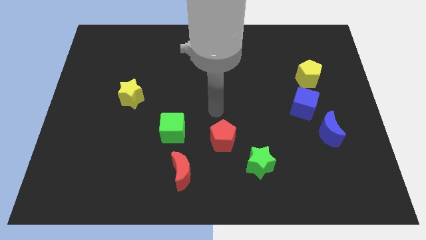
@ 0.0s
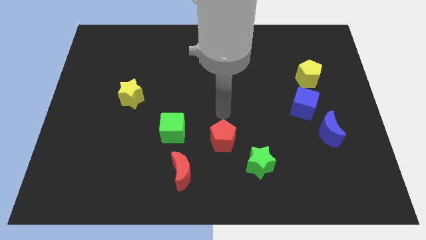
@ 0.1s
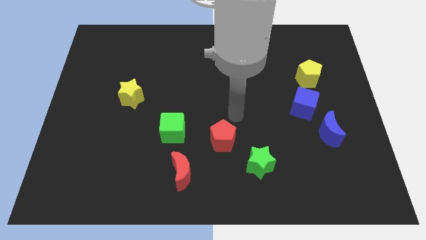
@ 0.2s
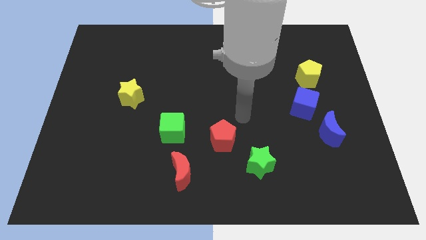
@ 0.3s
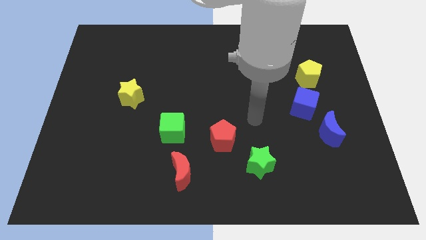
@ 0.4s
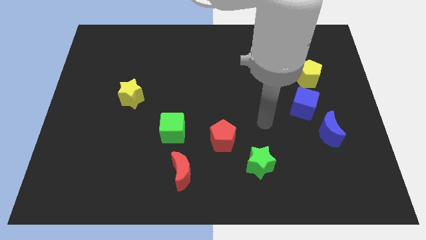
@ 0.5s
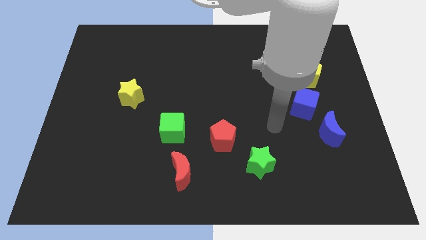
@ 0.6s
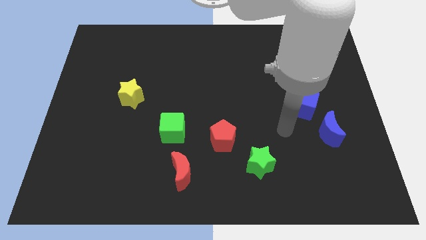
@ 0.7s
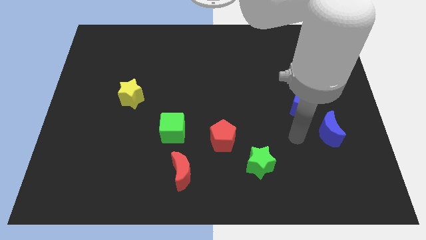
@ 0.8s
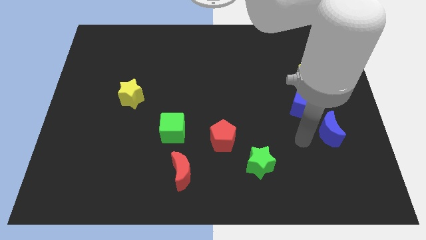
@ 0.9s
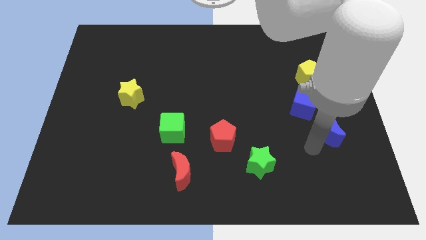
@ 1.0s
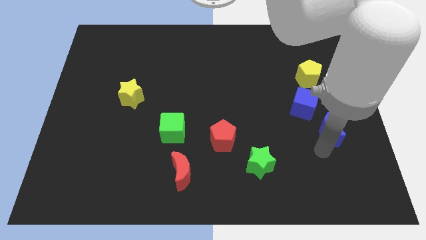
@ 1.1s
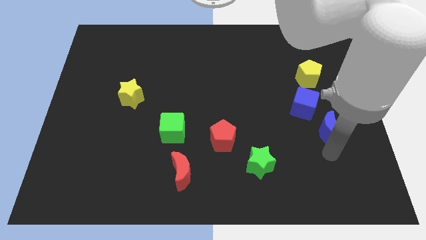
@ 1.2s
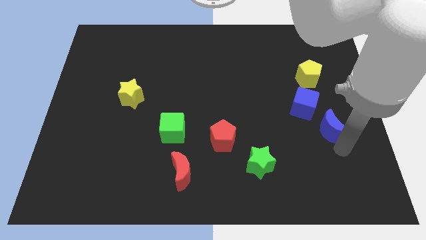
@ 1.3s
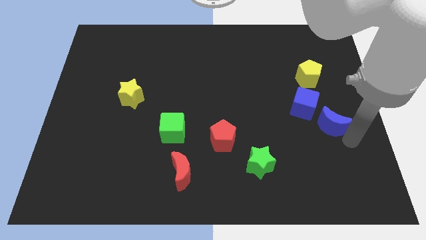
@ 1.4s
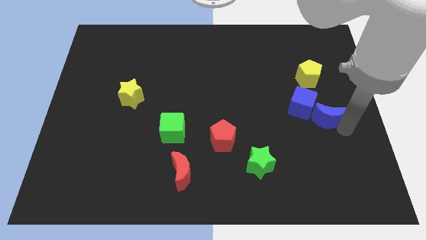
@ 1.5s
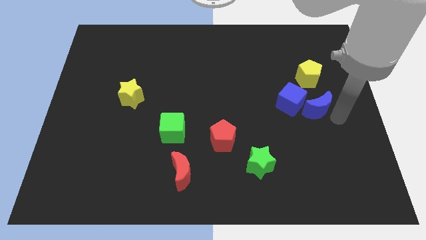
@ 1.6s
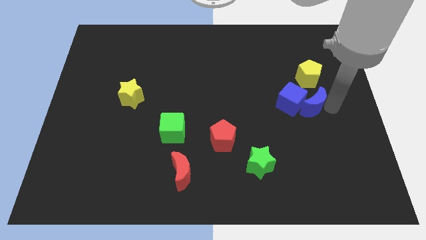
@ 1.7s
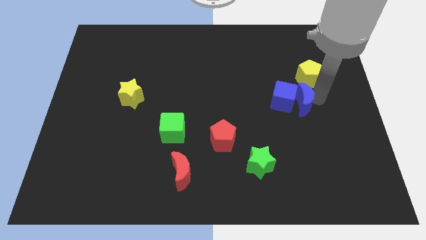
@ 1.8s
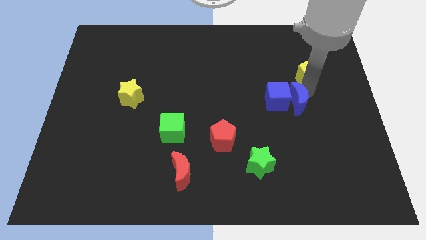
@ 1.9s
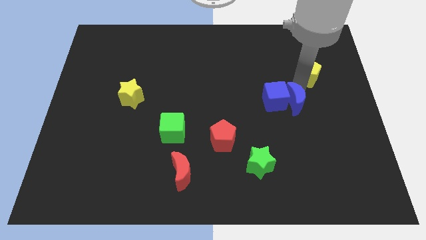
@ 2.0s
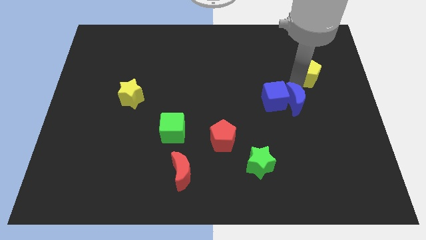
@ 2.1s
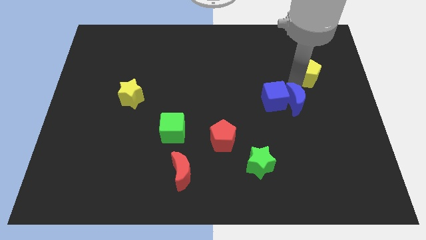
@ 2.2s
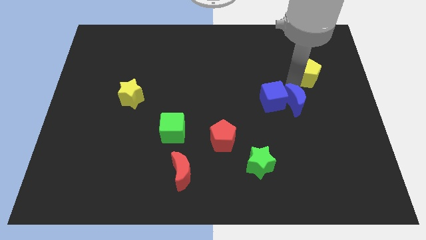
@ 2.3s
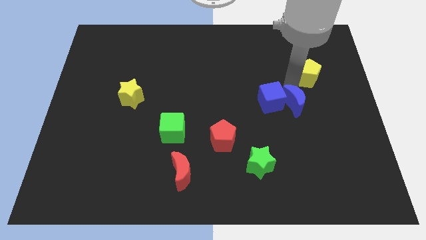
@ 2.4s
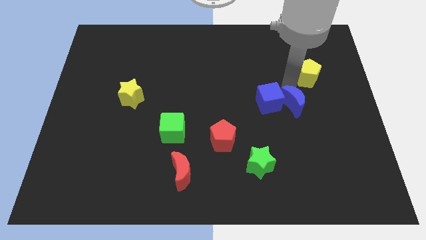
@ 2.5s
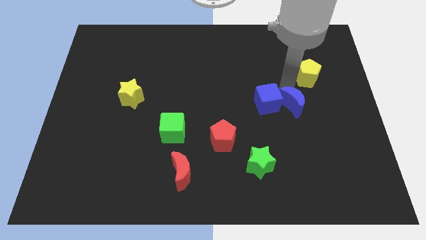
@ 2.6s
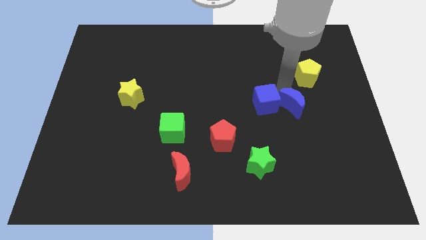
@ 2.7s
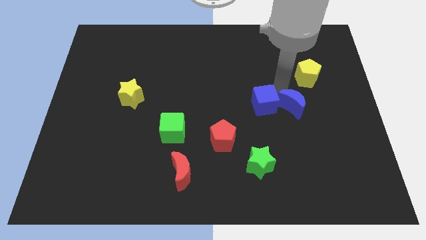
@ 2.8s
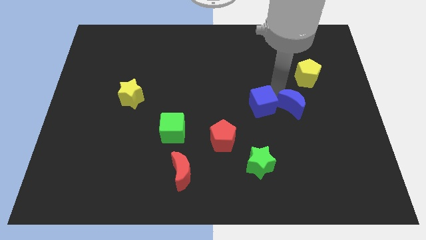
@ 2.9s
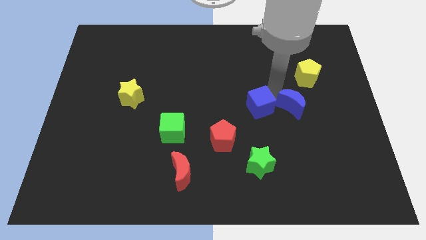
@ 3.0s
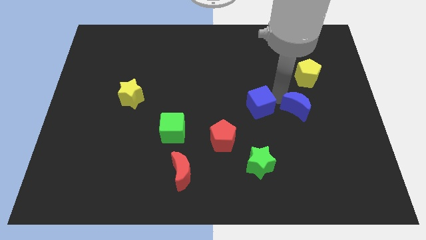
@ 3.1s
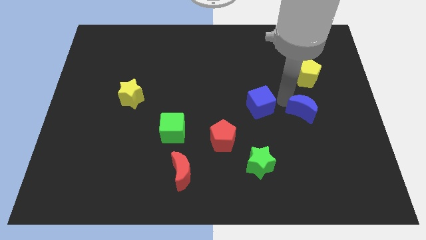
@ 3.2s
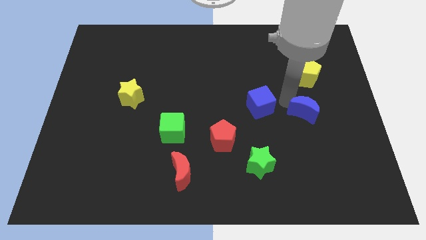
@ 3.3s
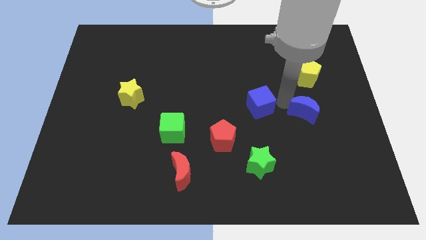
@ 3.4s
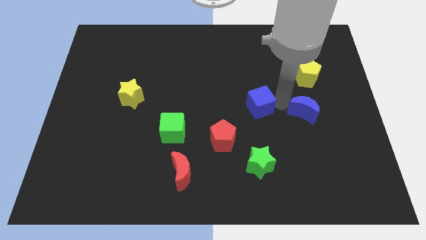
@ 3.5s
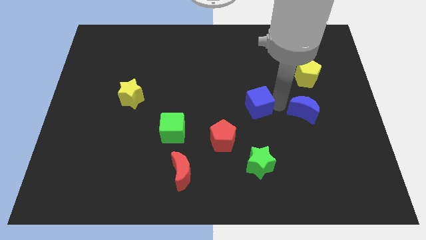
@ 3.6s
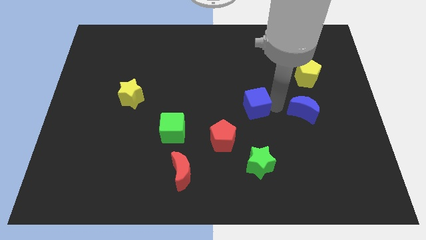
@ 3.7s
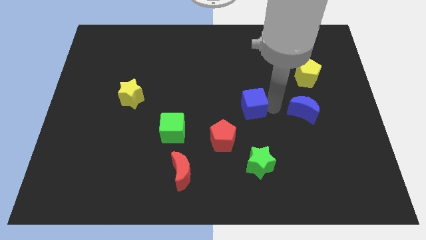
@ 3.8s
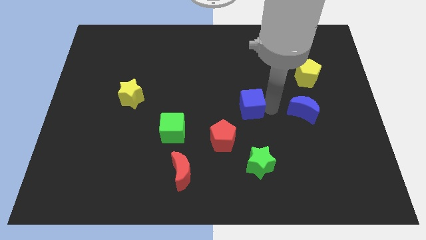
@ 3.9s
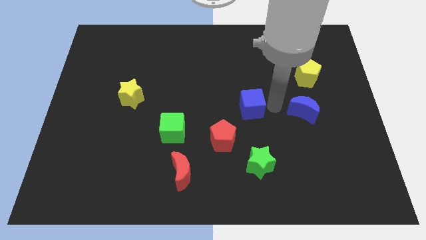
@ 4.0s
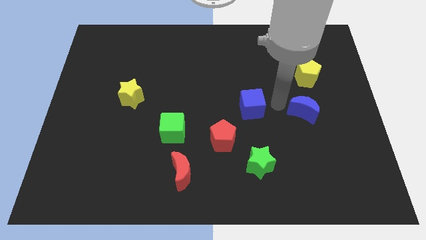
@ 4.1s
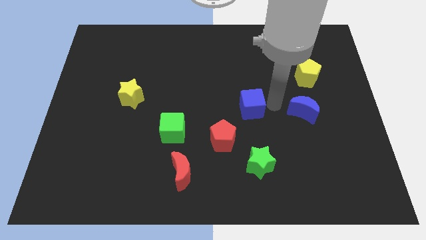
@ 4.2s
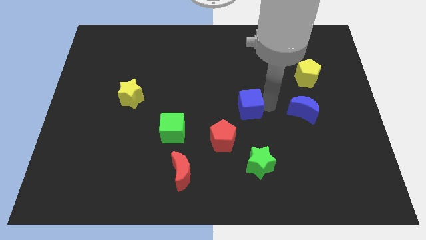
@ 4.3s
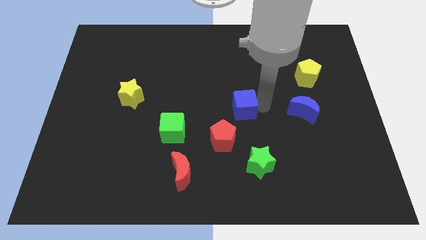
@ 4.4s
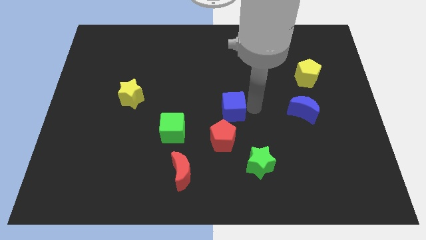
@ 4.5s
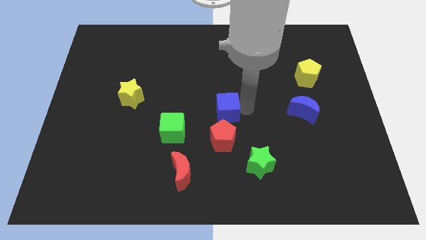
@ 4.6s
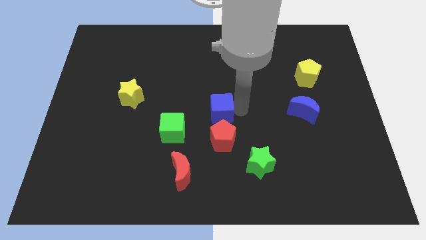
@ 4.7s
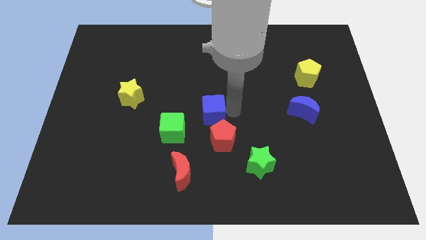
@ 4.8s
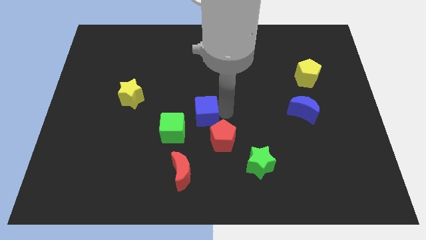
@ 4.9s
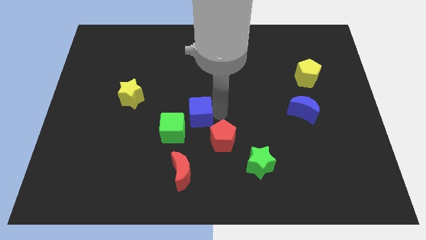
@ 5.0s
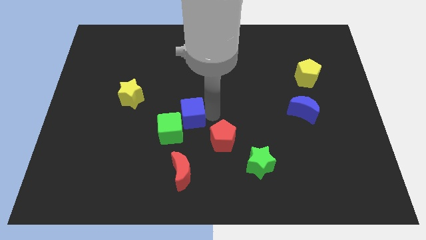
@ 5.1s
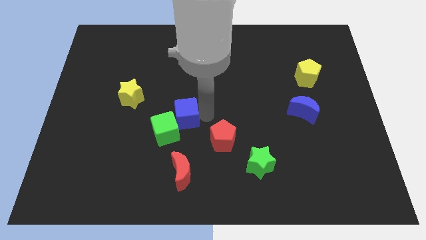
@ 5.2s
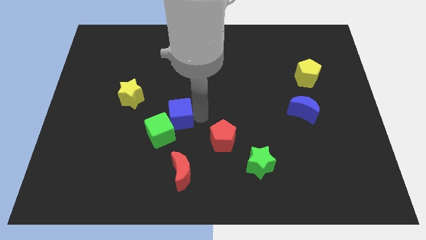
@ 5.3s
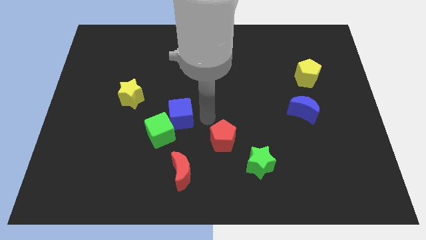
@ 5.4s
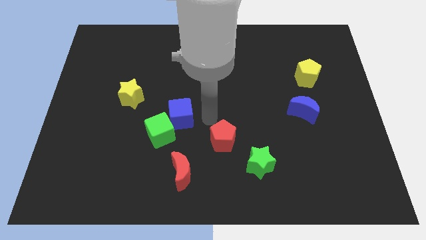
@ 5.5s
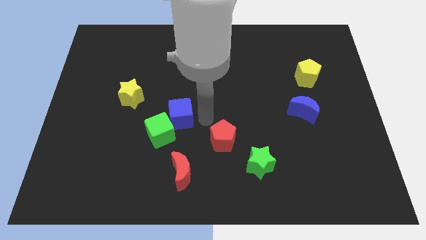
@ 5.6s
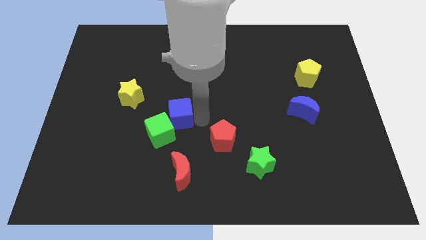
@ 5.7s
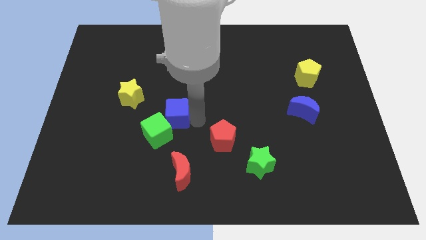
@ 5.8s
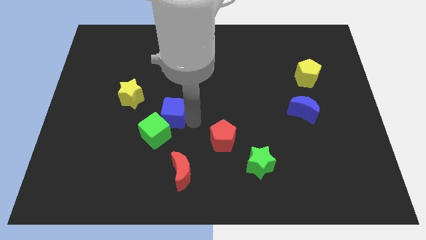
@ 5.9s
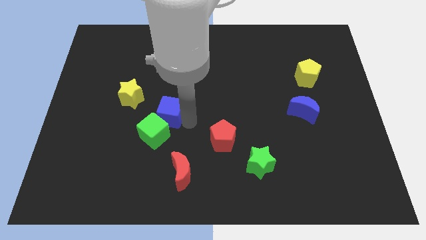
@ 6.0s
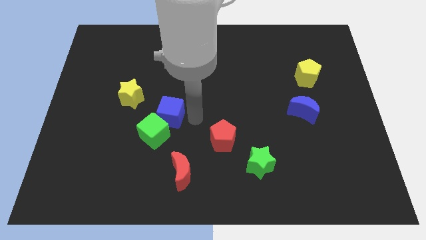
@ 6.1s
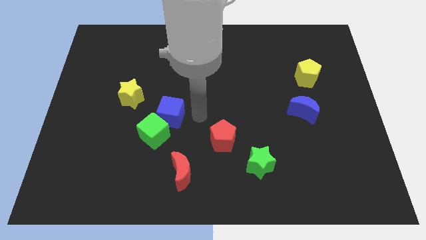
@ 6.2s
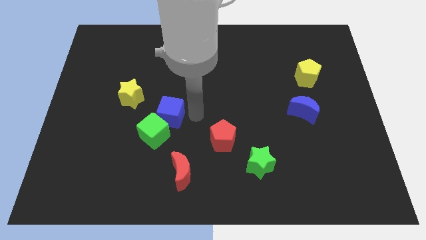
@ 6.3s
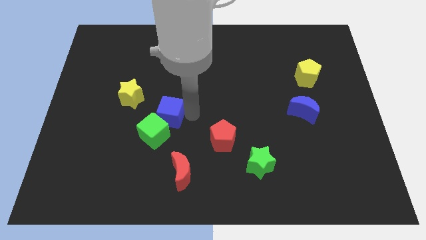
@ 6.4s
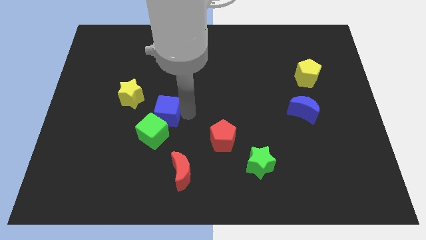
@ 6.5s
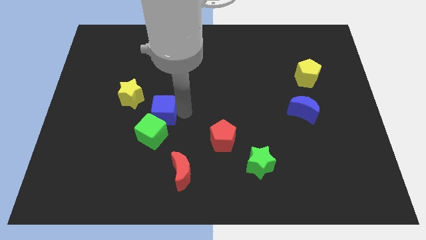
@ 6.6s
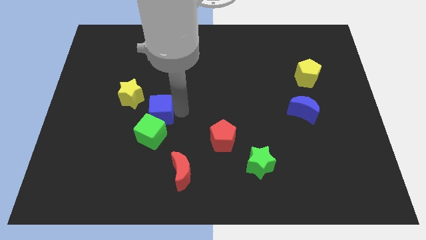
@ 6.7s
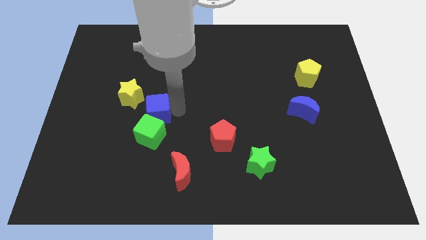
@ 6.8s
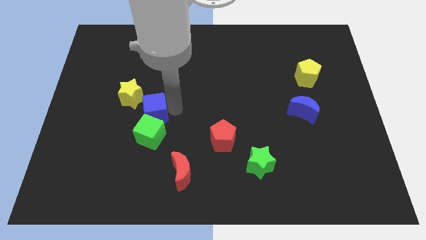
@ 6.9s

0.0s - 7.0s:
slide the blue cube diagonally up and to the left of the green cube
